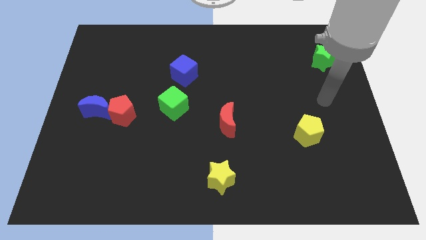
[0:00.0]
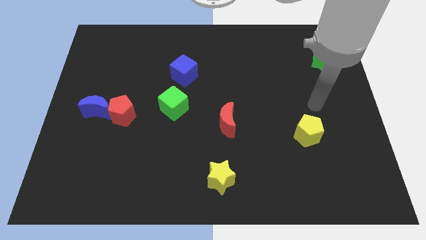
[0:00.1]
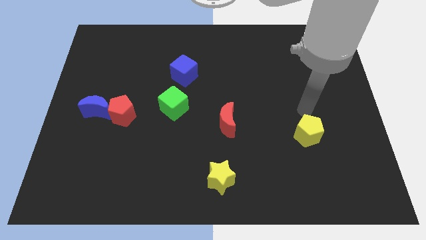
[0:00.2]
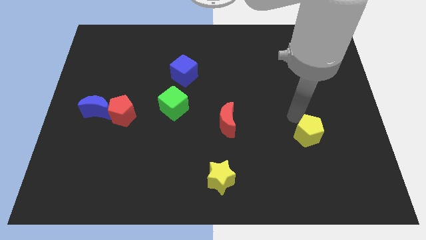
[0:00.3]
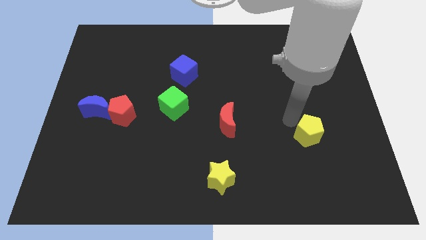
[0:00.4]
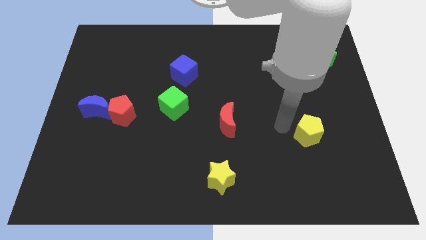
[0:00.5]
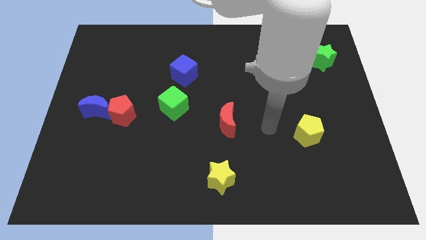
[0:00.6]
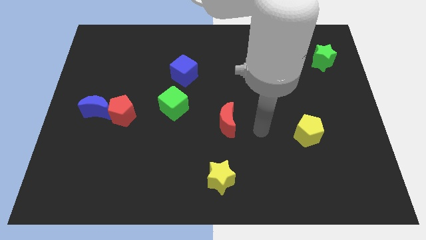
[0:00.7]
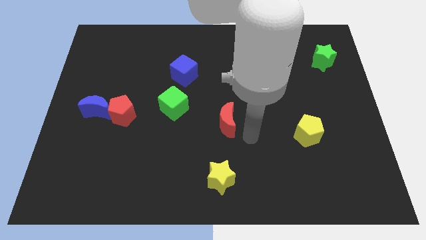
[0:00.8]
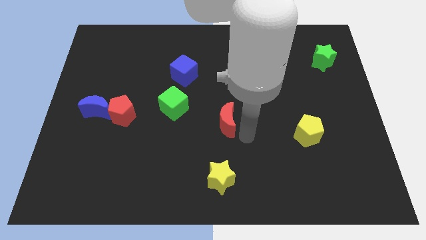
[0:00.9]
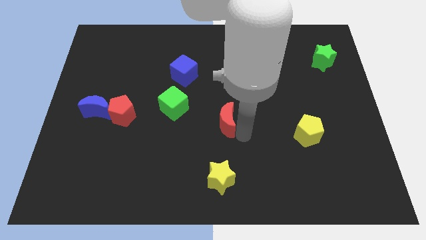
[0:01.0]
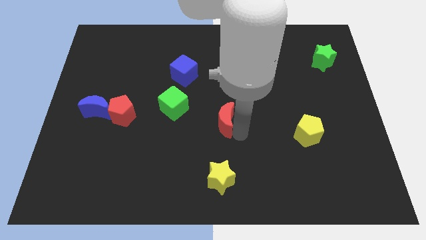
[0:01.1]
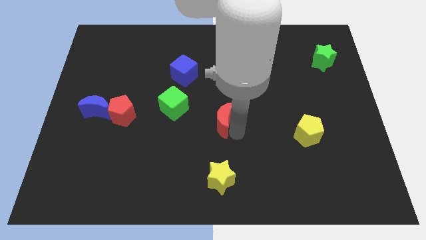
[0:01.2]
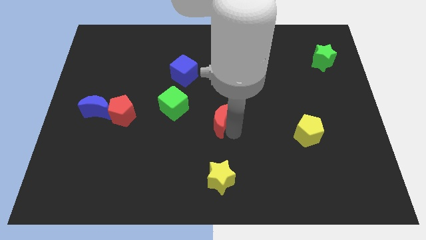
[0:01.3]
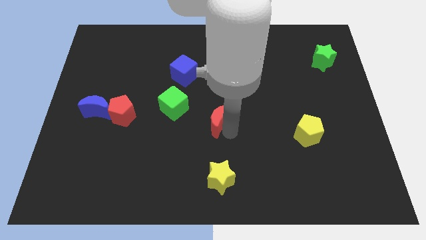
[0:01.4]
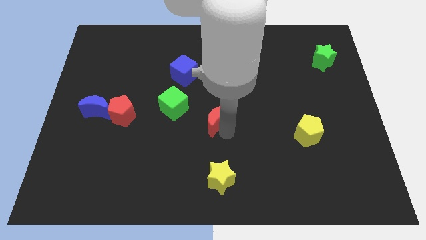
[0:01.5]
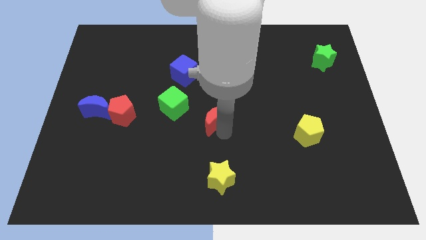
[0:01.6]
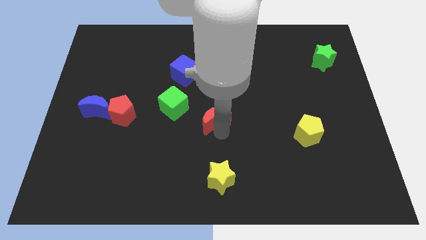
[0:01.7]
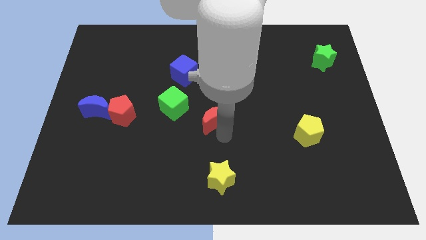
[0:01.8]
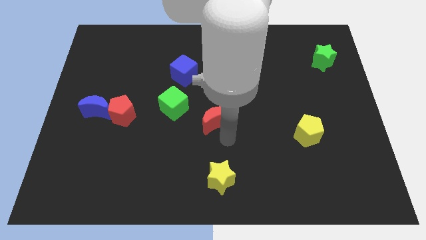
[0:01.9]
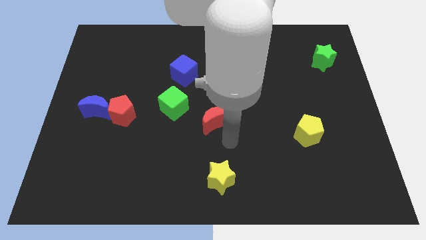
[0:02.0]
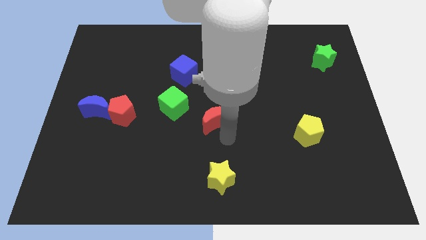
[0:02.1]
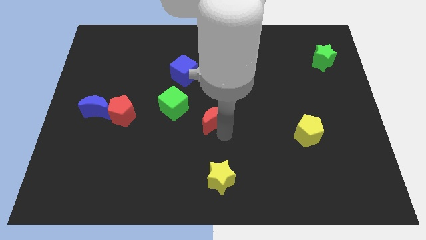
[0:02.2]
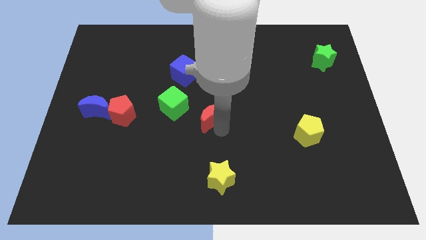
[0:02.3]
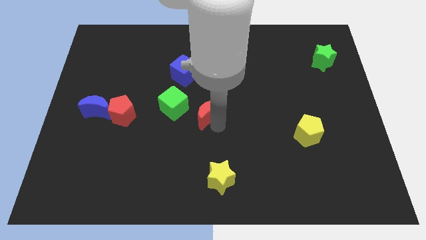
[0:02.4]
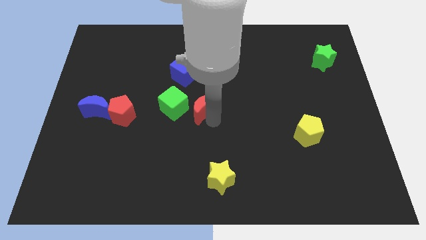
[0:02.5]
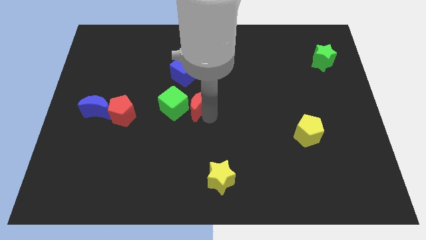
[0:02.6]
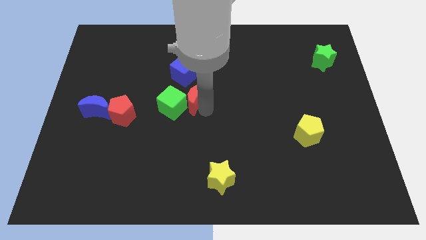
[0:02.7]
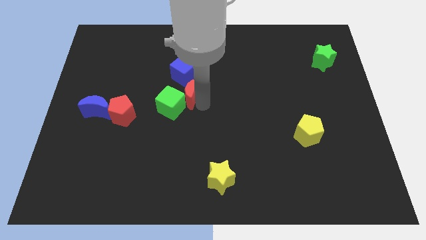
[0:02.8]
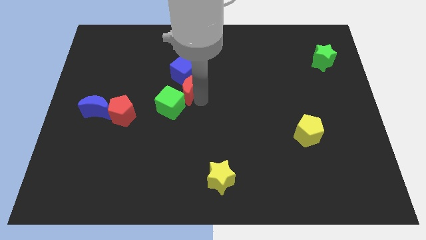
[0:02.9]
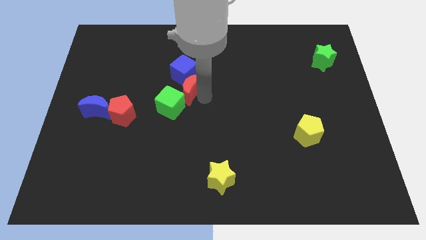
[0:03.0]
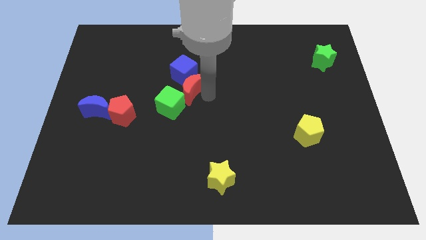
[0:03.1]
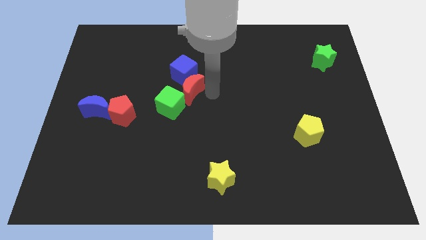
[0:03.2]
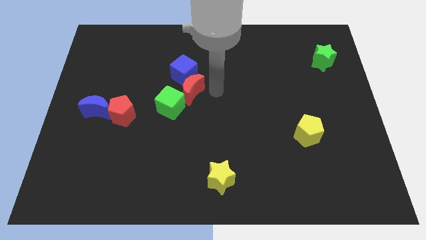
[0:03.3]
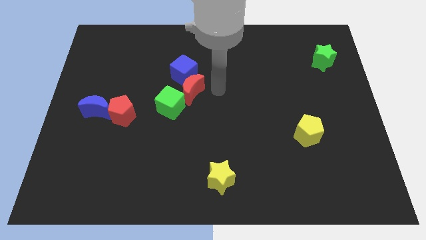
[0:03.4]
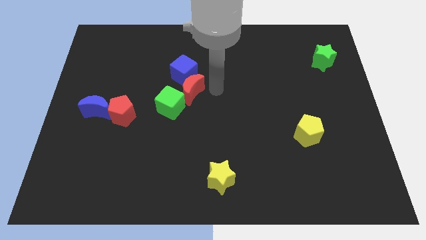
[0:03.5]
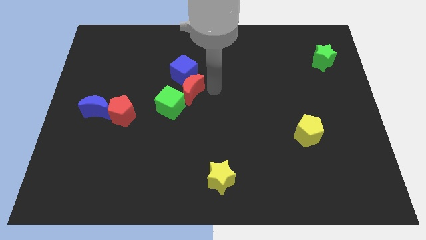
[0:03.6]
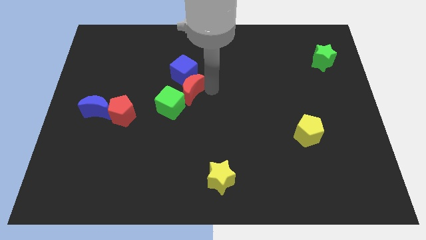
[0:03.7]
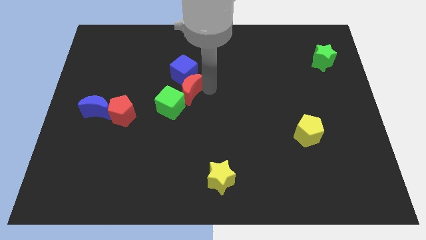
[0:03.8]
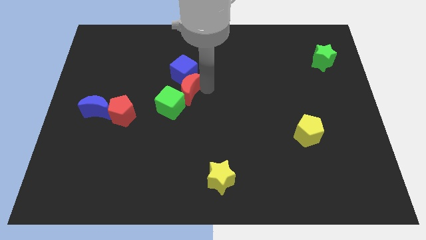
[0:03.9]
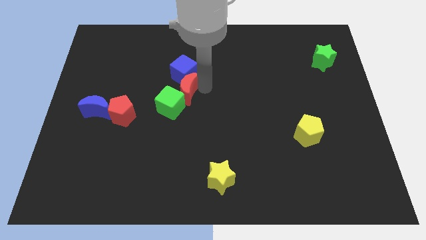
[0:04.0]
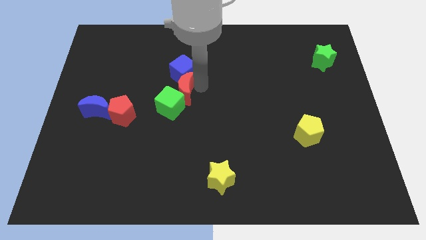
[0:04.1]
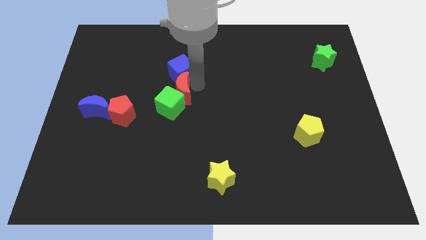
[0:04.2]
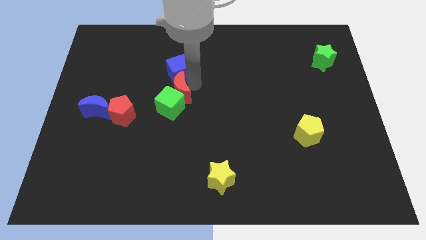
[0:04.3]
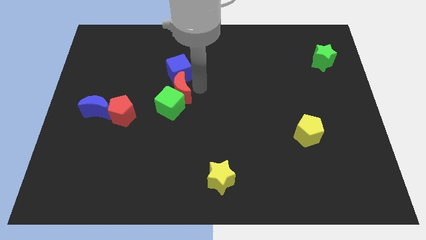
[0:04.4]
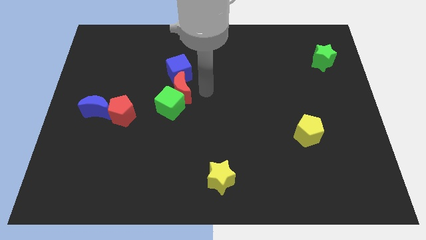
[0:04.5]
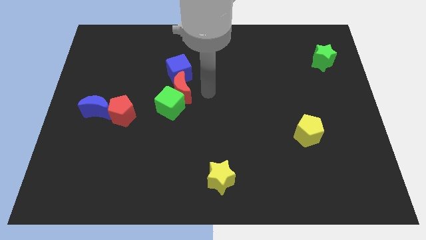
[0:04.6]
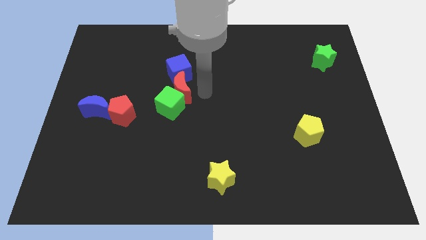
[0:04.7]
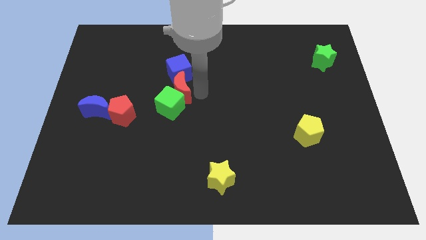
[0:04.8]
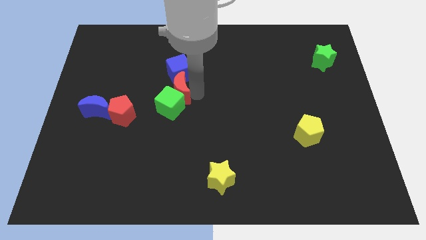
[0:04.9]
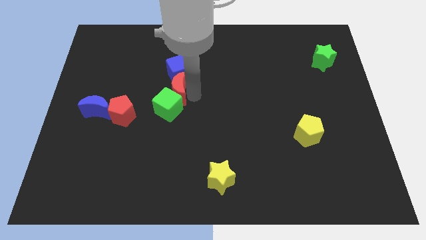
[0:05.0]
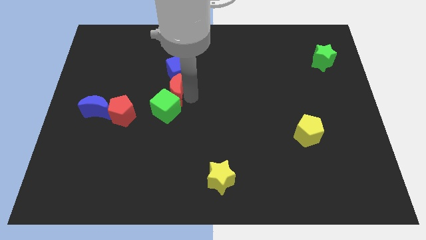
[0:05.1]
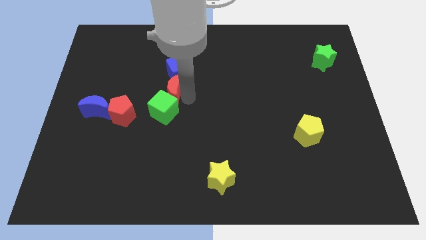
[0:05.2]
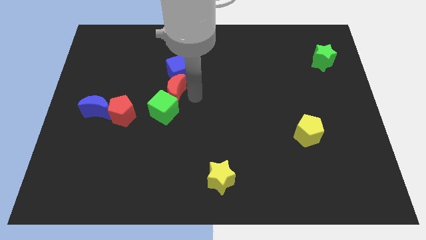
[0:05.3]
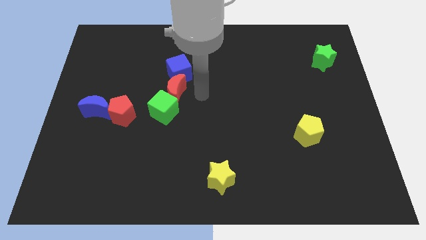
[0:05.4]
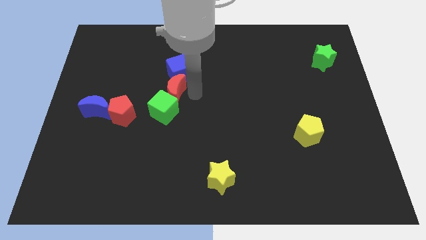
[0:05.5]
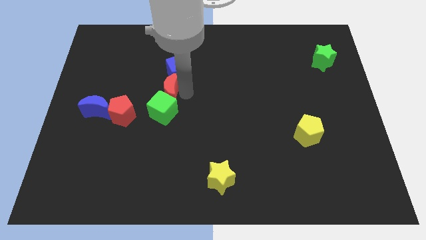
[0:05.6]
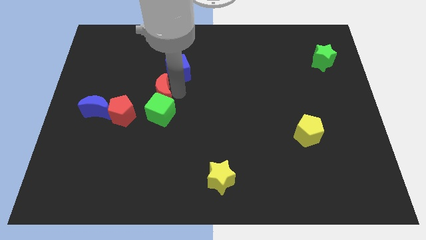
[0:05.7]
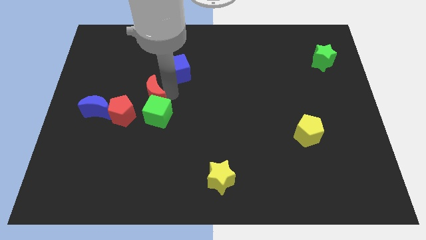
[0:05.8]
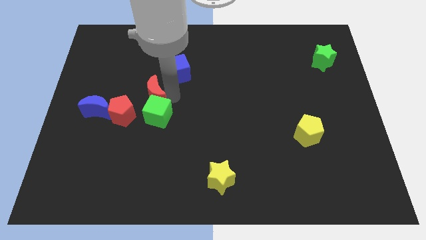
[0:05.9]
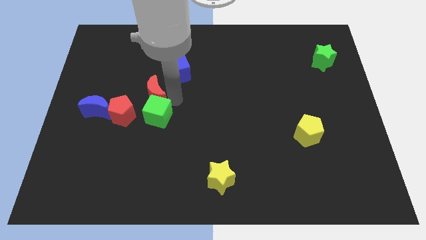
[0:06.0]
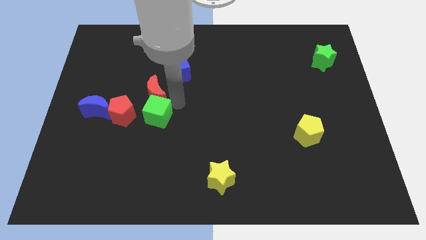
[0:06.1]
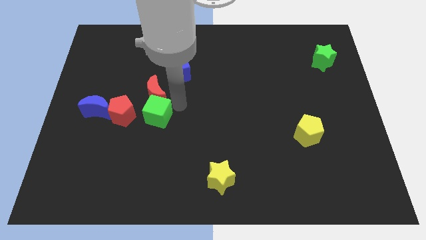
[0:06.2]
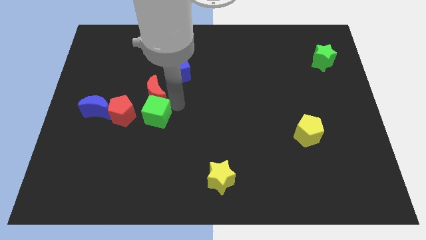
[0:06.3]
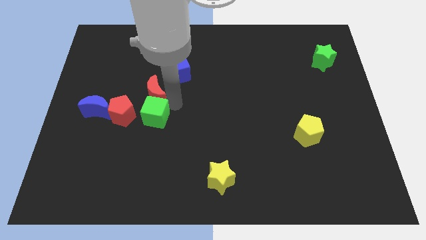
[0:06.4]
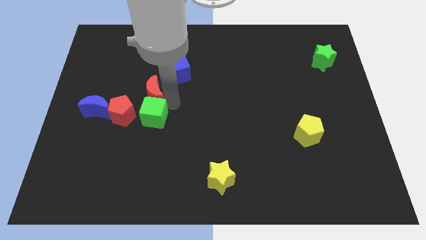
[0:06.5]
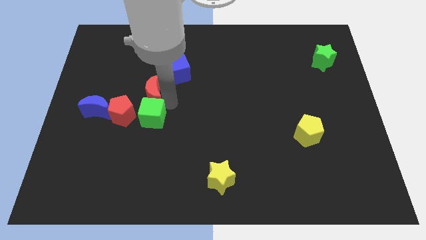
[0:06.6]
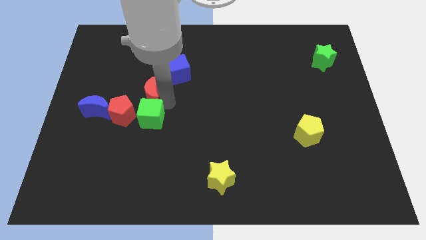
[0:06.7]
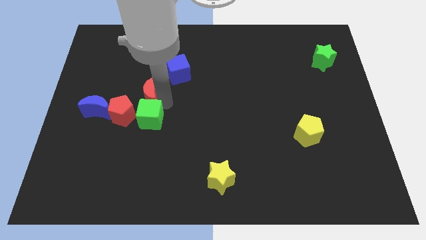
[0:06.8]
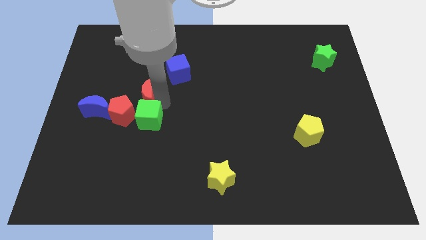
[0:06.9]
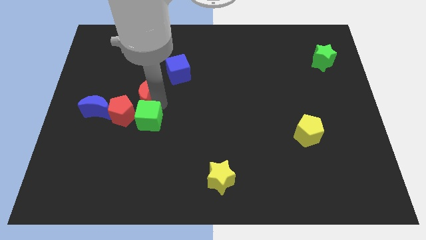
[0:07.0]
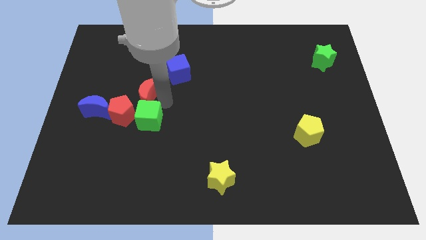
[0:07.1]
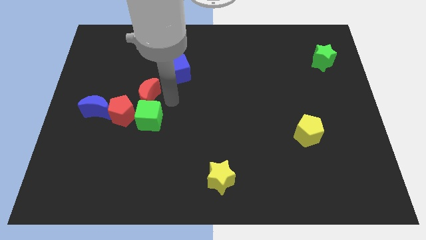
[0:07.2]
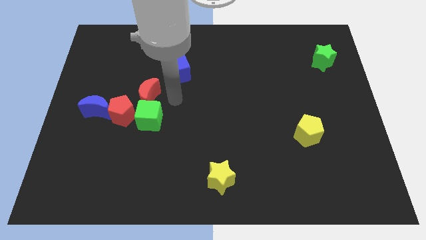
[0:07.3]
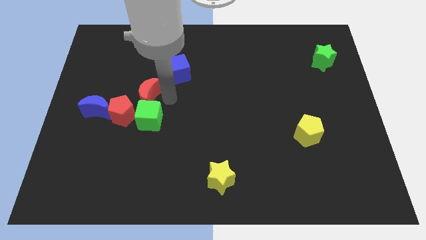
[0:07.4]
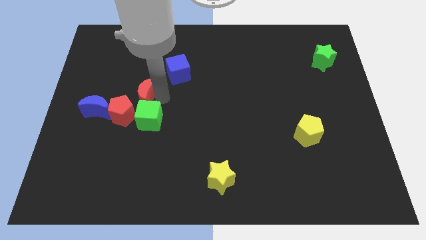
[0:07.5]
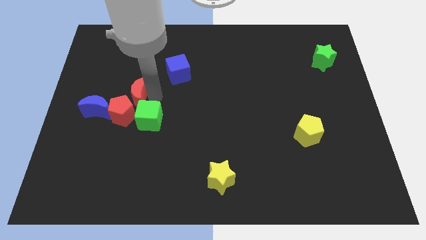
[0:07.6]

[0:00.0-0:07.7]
move the red moon to the top right of the blue moon
